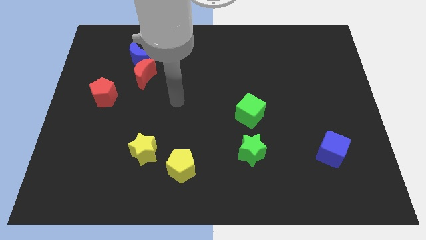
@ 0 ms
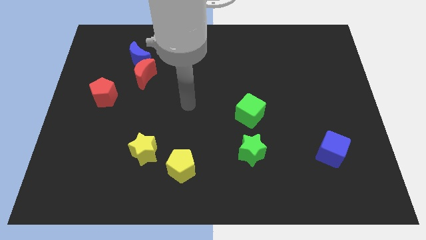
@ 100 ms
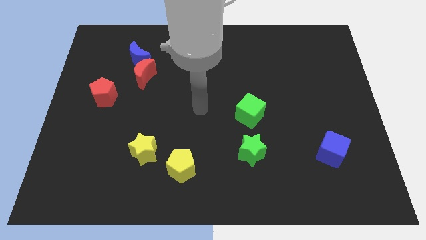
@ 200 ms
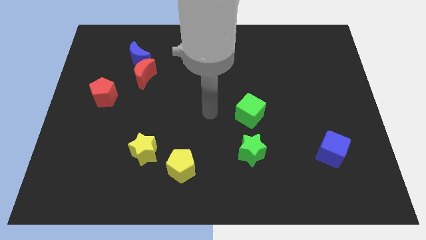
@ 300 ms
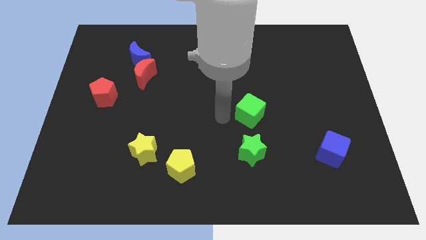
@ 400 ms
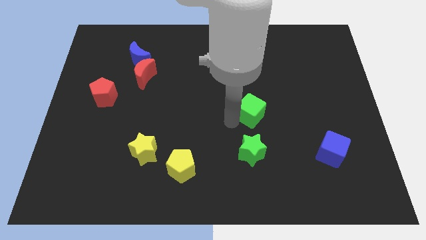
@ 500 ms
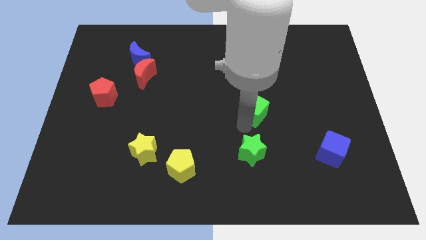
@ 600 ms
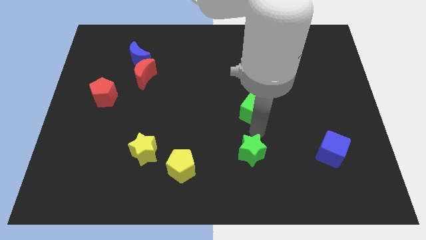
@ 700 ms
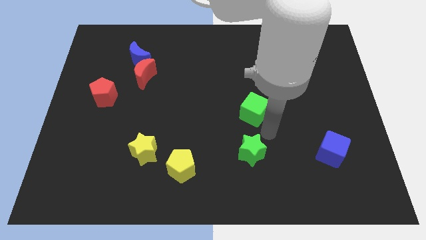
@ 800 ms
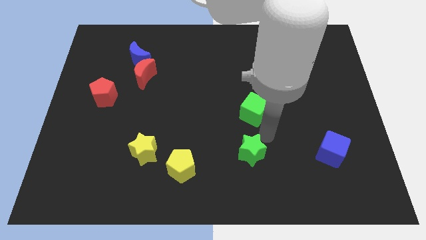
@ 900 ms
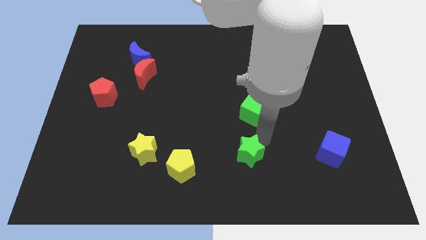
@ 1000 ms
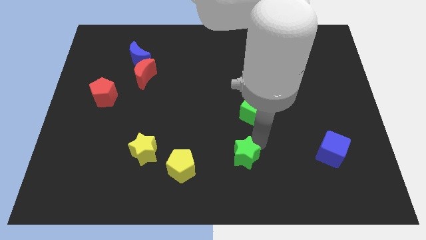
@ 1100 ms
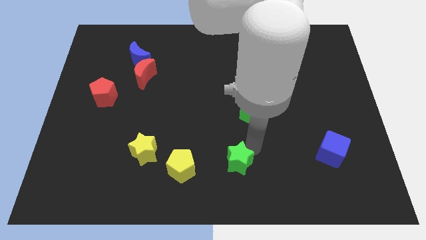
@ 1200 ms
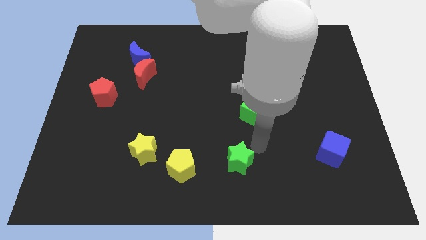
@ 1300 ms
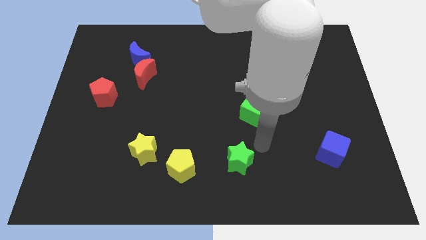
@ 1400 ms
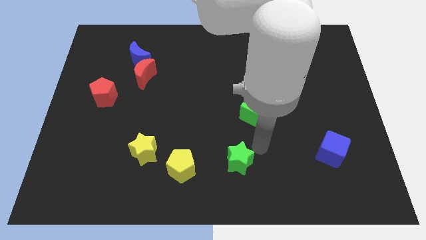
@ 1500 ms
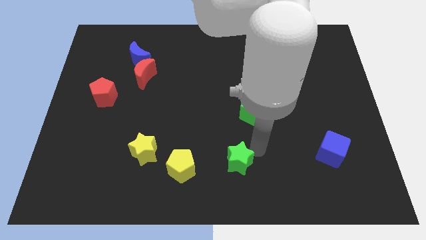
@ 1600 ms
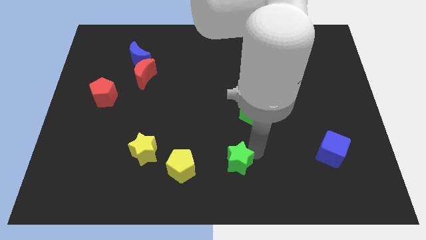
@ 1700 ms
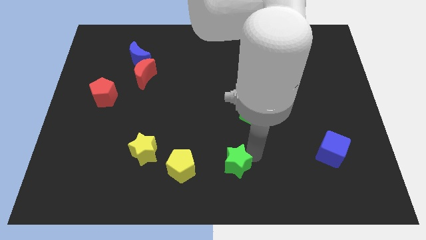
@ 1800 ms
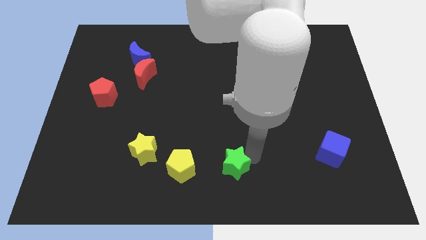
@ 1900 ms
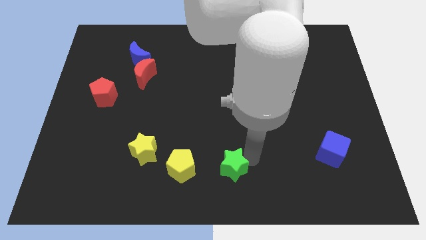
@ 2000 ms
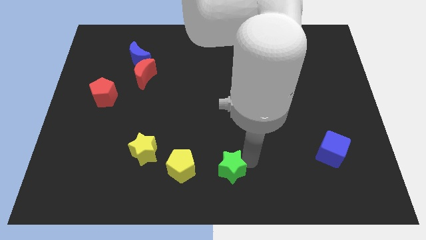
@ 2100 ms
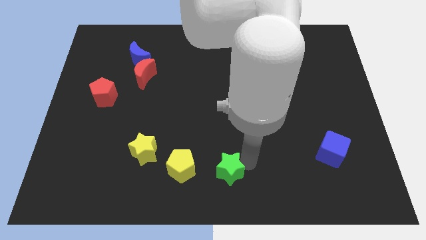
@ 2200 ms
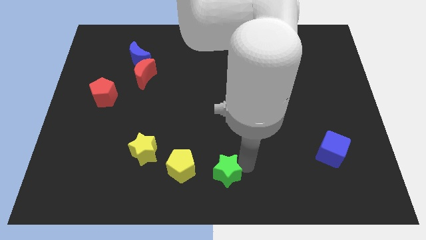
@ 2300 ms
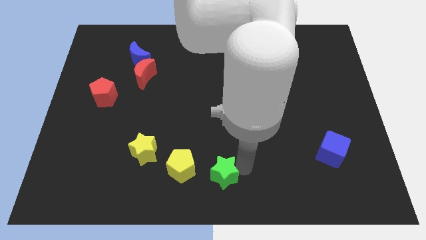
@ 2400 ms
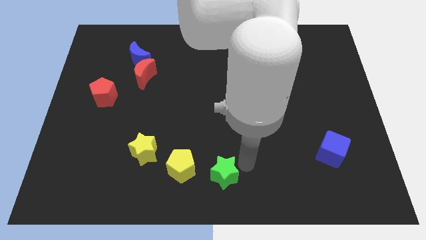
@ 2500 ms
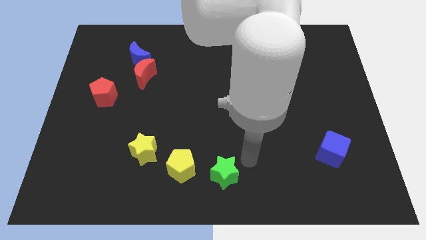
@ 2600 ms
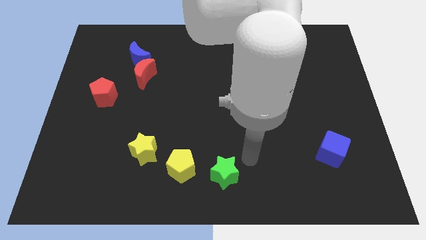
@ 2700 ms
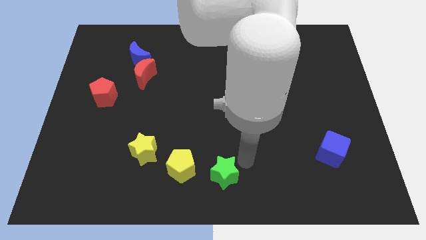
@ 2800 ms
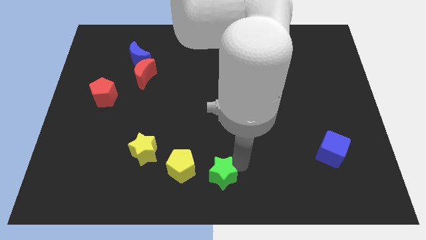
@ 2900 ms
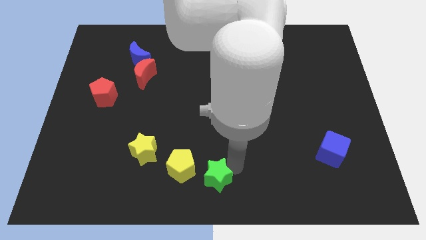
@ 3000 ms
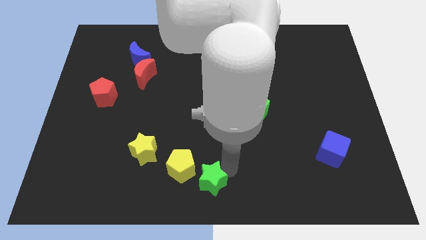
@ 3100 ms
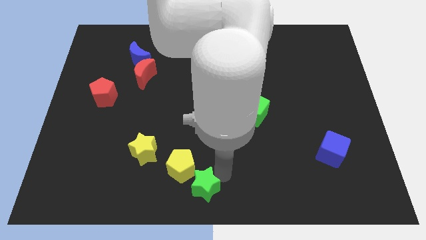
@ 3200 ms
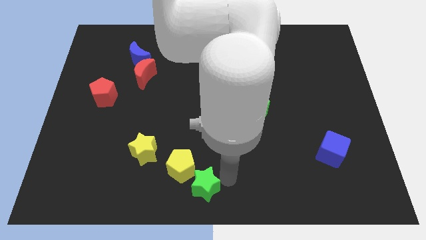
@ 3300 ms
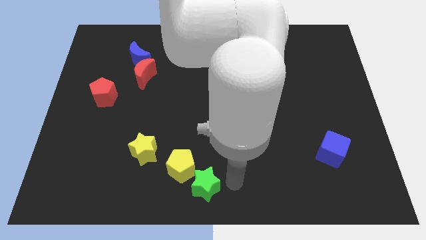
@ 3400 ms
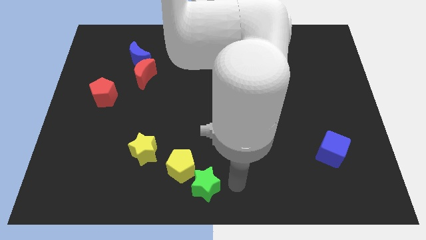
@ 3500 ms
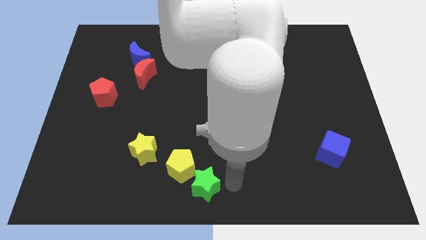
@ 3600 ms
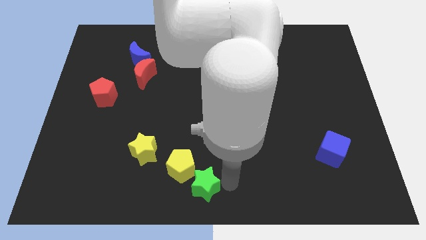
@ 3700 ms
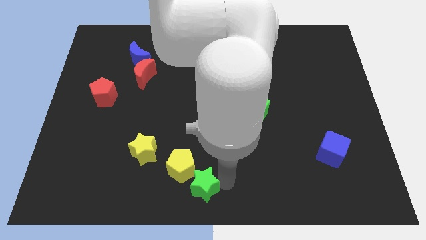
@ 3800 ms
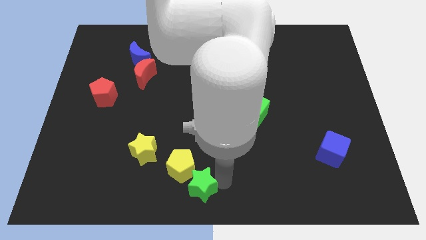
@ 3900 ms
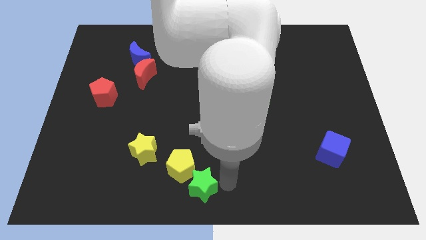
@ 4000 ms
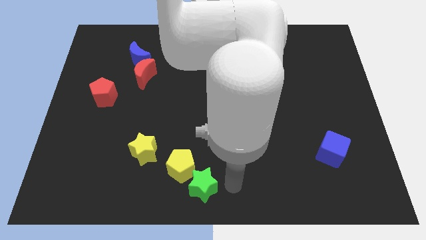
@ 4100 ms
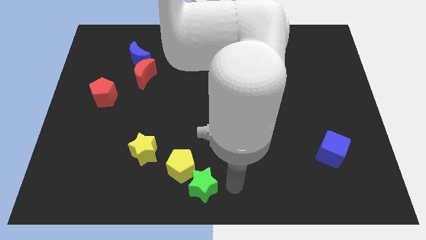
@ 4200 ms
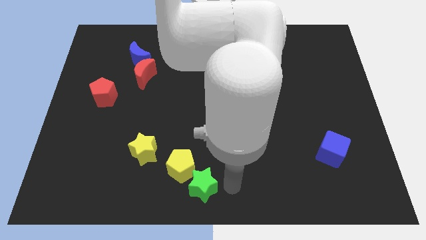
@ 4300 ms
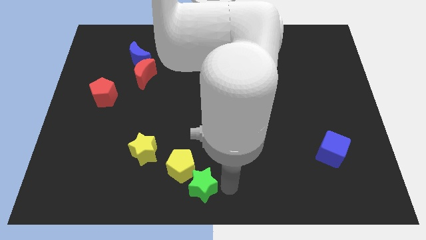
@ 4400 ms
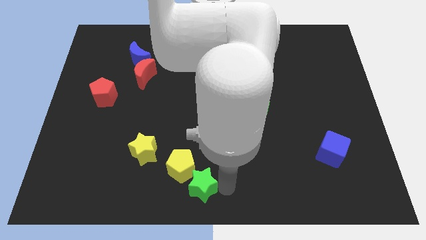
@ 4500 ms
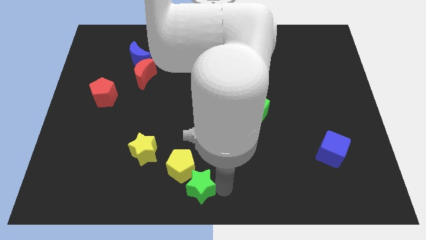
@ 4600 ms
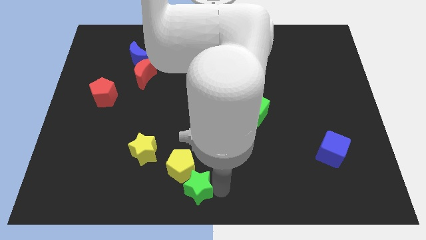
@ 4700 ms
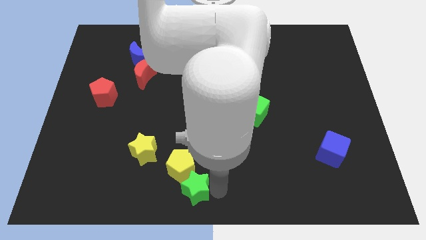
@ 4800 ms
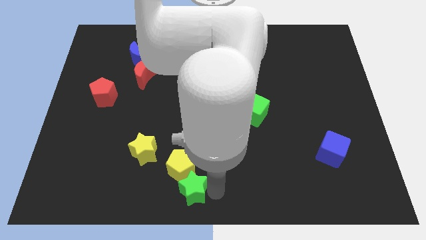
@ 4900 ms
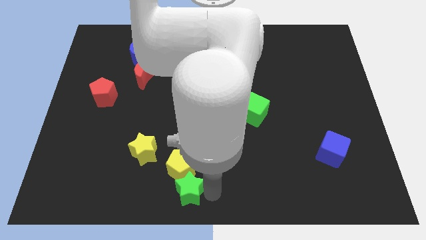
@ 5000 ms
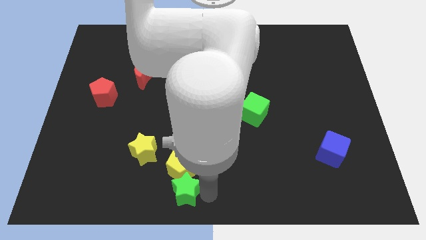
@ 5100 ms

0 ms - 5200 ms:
push the green star to the bottom right side of the yellow star

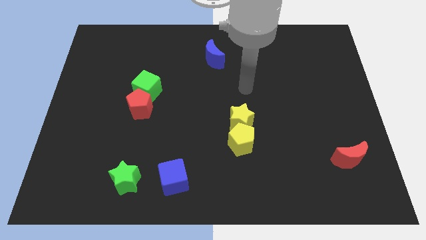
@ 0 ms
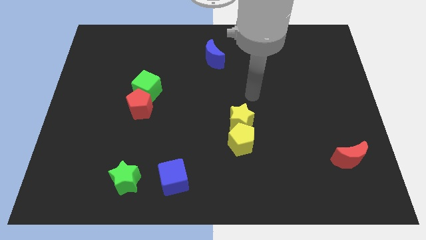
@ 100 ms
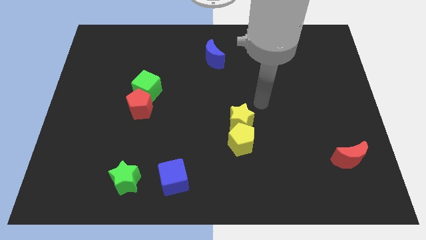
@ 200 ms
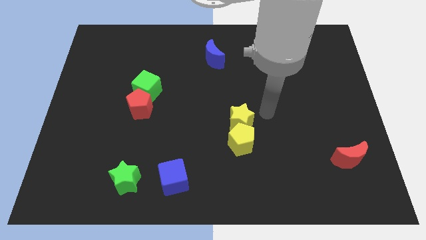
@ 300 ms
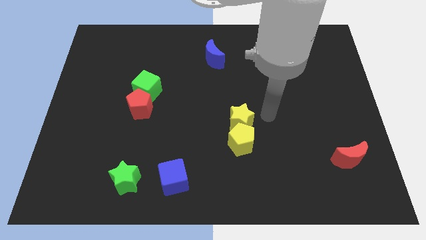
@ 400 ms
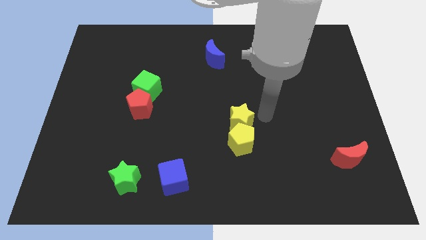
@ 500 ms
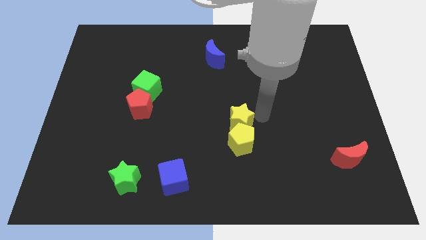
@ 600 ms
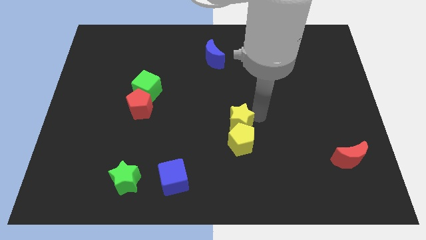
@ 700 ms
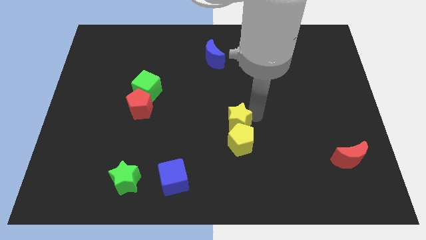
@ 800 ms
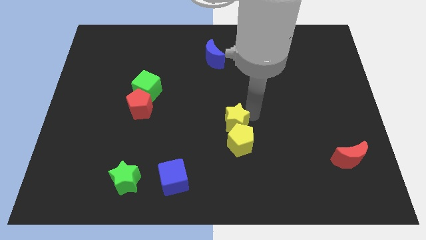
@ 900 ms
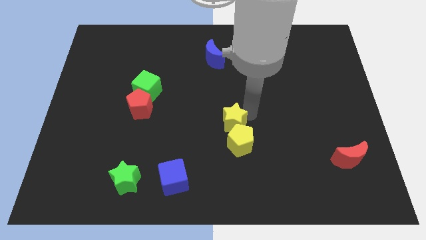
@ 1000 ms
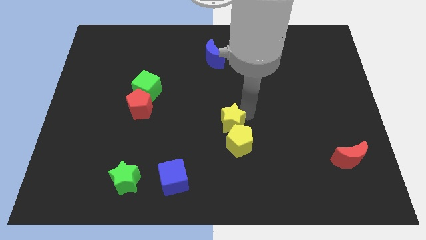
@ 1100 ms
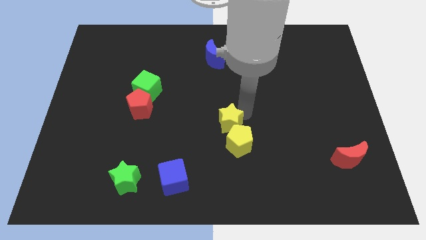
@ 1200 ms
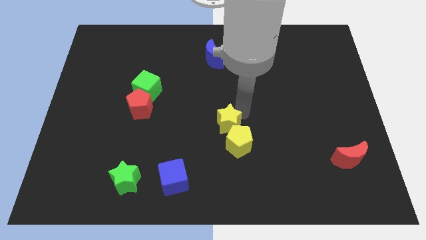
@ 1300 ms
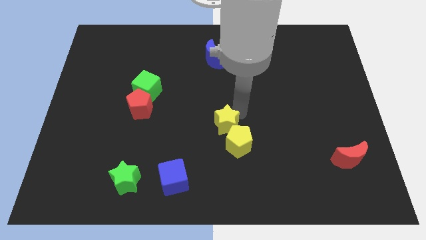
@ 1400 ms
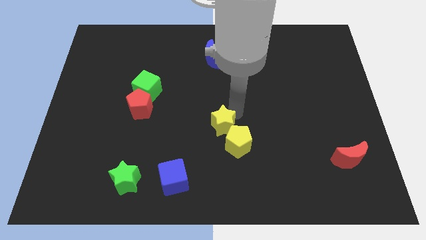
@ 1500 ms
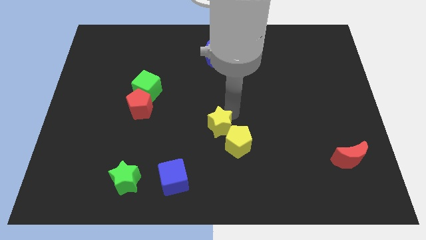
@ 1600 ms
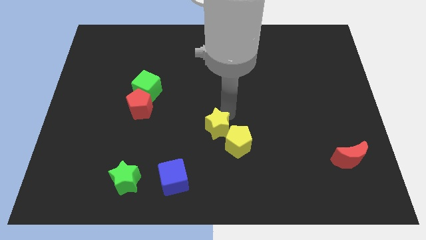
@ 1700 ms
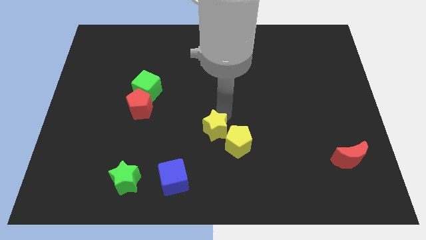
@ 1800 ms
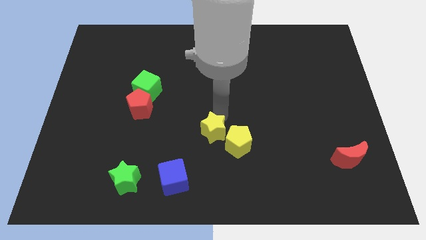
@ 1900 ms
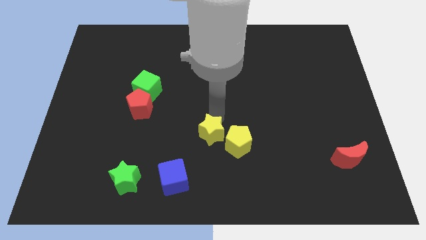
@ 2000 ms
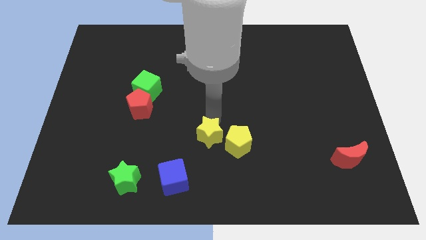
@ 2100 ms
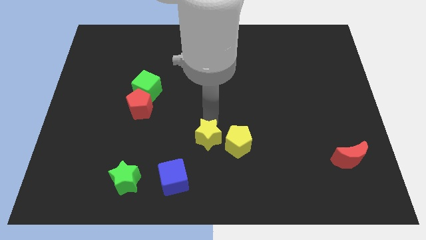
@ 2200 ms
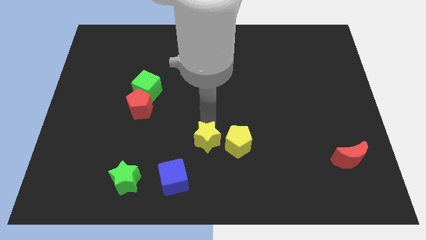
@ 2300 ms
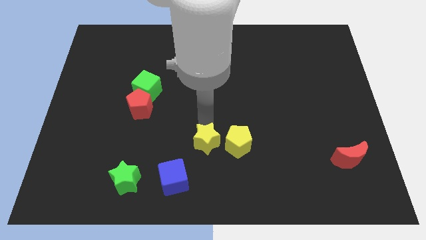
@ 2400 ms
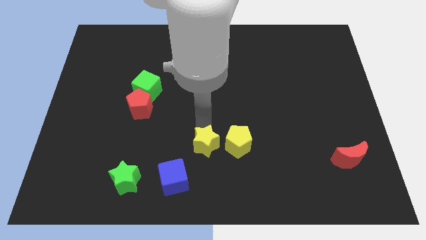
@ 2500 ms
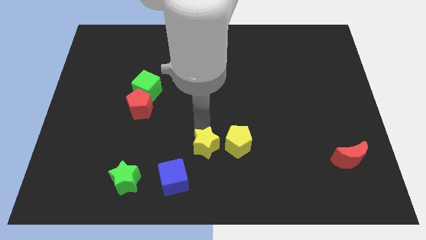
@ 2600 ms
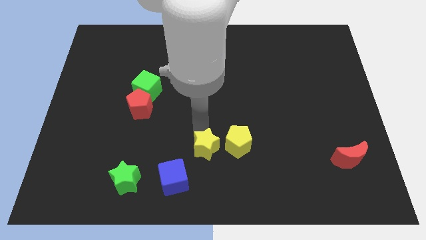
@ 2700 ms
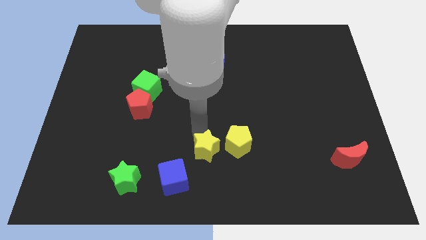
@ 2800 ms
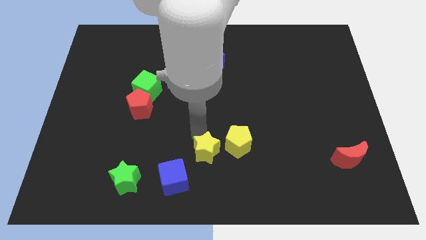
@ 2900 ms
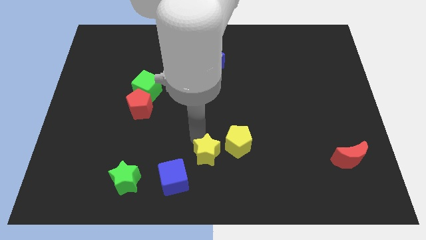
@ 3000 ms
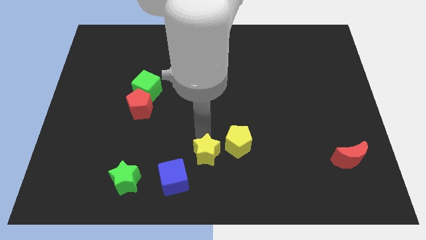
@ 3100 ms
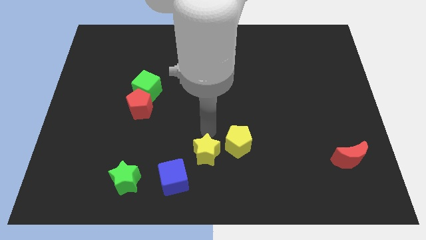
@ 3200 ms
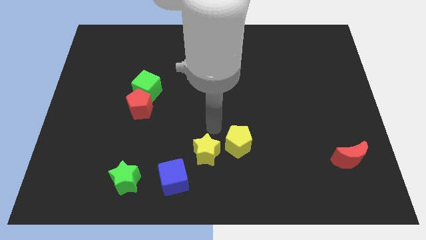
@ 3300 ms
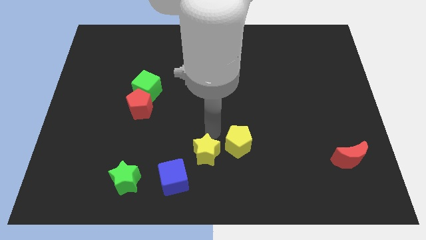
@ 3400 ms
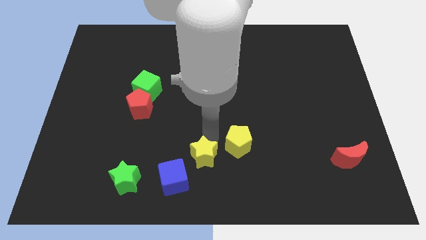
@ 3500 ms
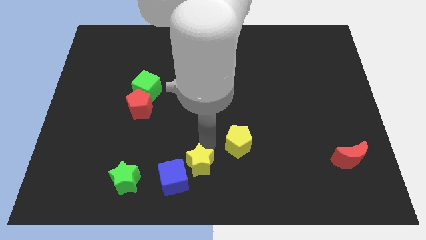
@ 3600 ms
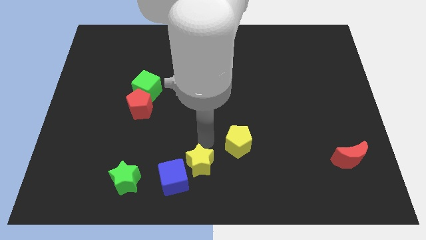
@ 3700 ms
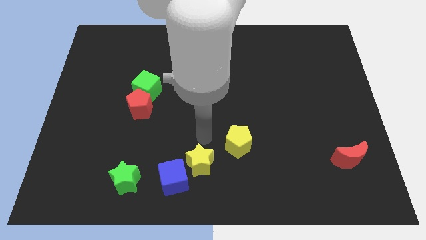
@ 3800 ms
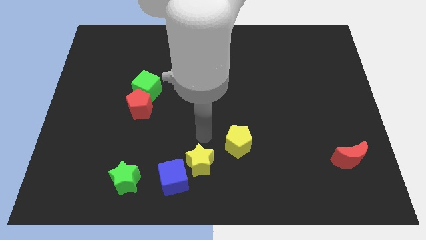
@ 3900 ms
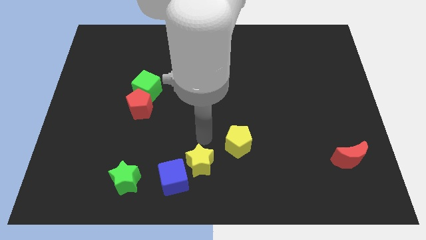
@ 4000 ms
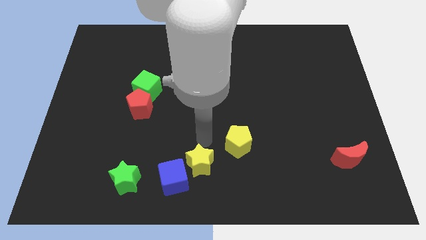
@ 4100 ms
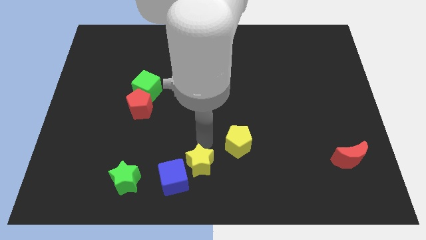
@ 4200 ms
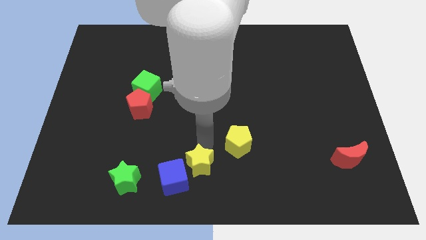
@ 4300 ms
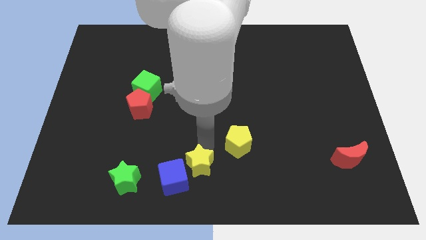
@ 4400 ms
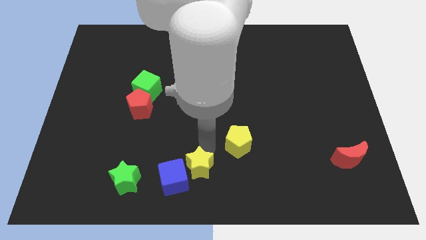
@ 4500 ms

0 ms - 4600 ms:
move the yellow star to the right of the green star
